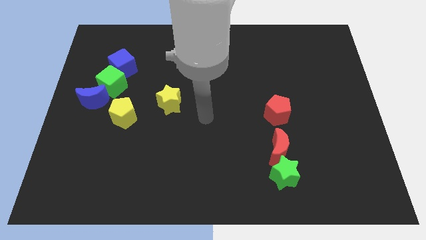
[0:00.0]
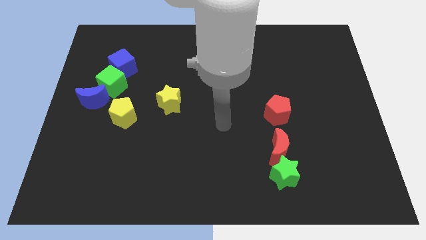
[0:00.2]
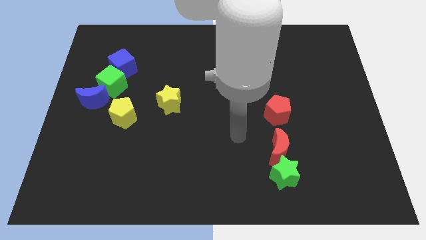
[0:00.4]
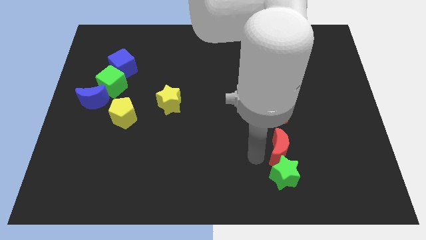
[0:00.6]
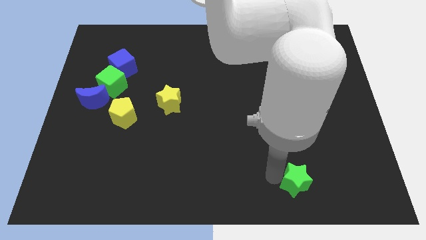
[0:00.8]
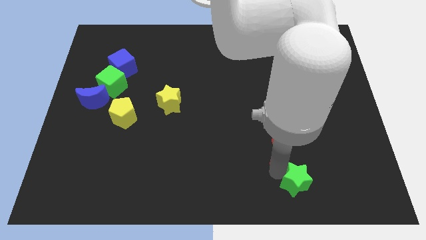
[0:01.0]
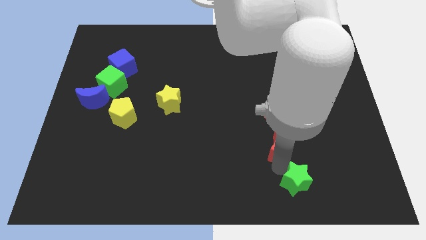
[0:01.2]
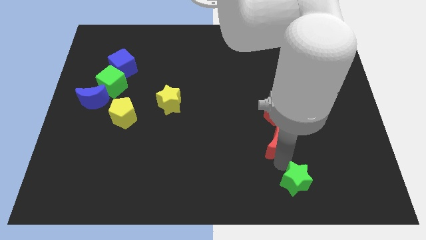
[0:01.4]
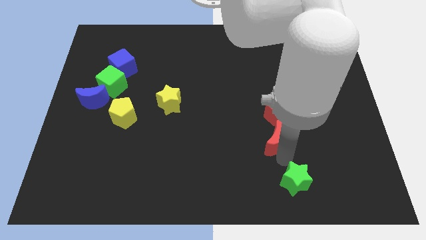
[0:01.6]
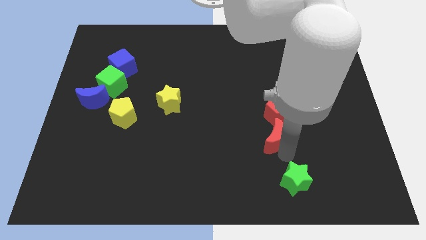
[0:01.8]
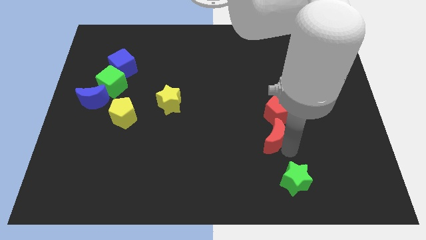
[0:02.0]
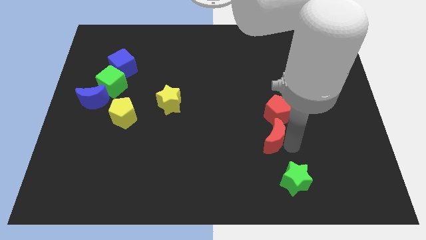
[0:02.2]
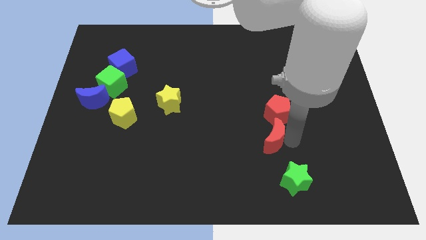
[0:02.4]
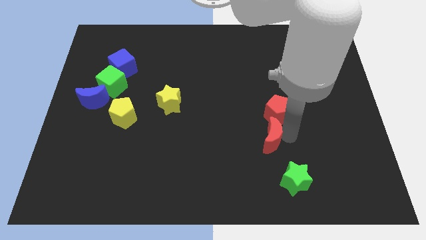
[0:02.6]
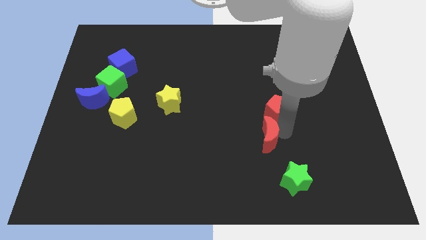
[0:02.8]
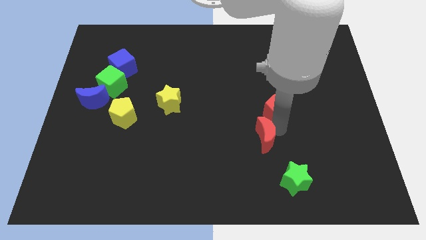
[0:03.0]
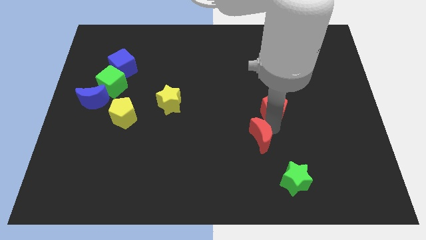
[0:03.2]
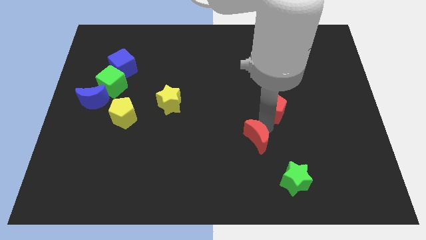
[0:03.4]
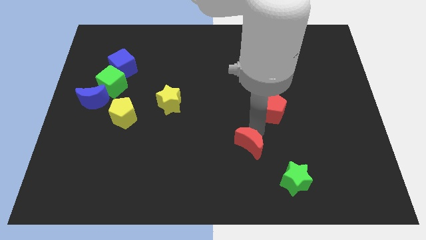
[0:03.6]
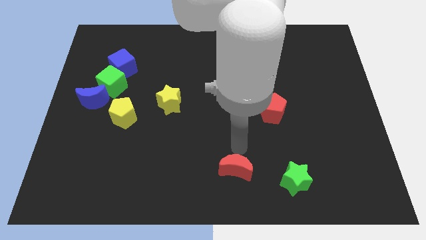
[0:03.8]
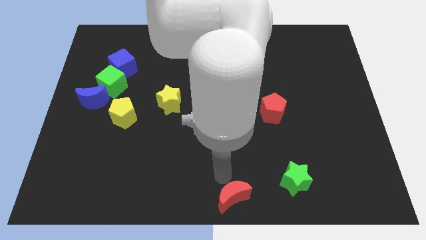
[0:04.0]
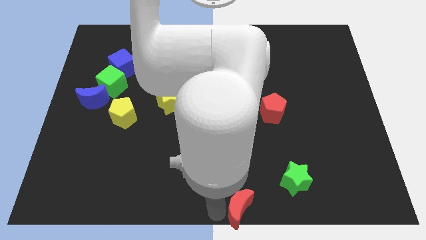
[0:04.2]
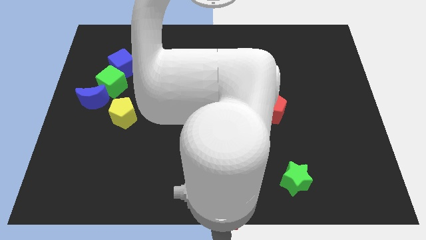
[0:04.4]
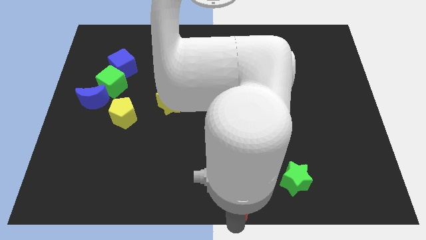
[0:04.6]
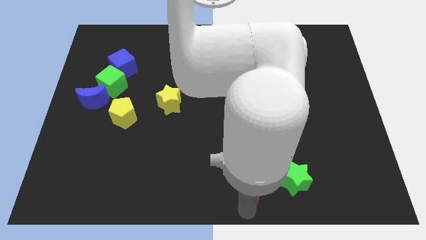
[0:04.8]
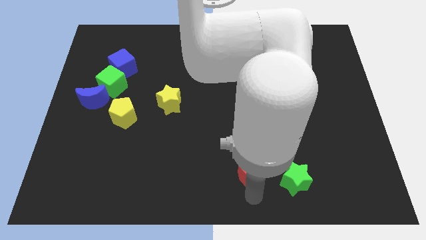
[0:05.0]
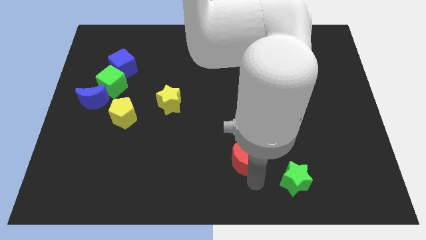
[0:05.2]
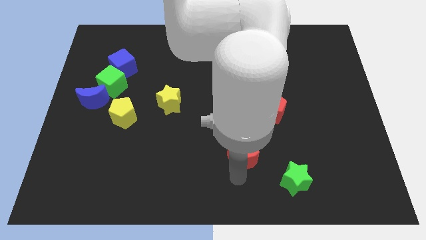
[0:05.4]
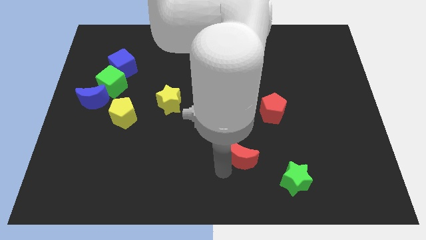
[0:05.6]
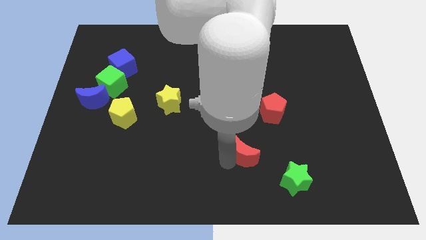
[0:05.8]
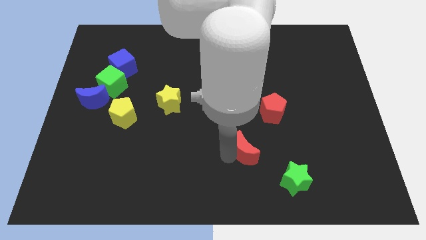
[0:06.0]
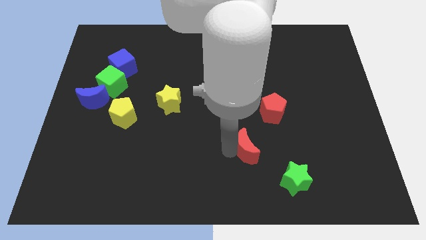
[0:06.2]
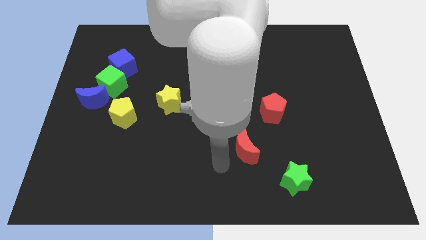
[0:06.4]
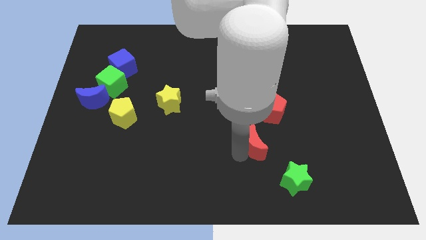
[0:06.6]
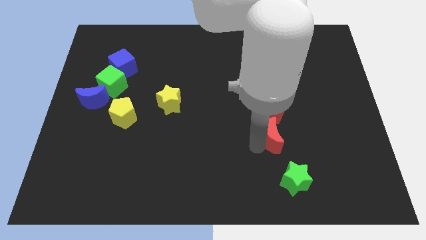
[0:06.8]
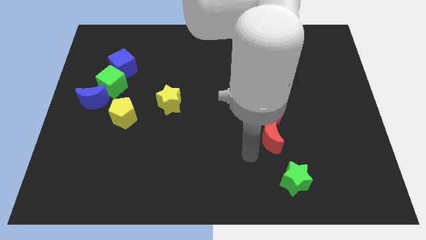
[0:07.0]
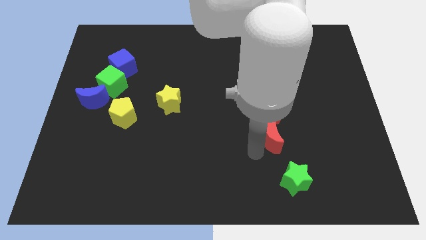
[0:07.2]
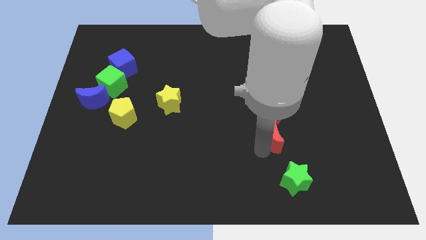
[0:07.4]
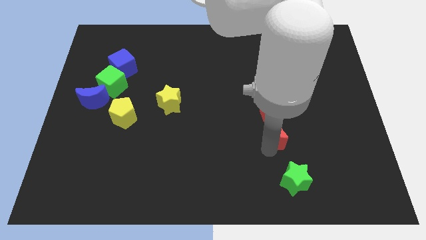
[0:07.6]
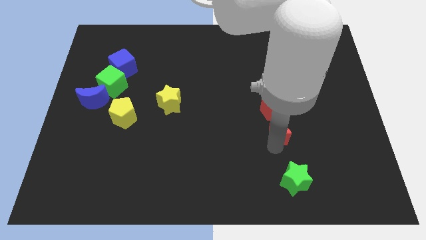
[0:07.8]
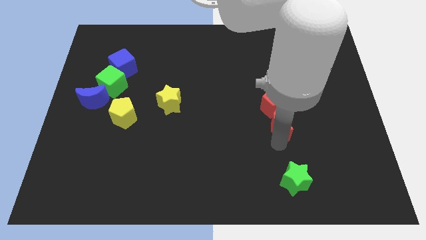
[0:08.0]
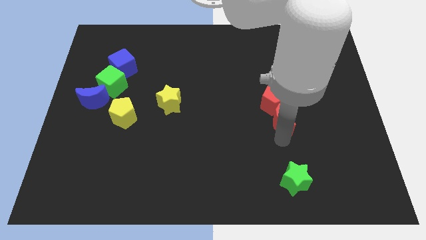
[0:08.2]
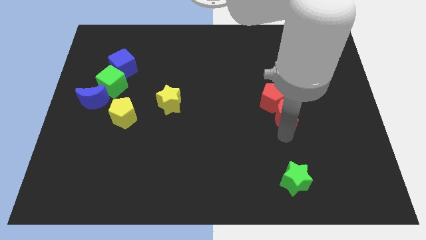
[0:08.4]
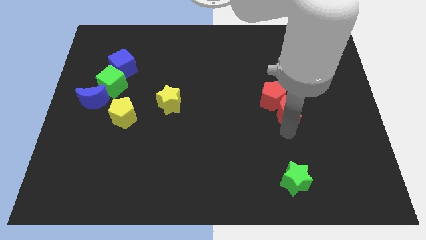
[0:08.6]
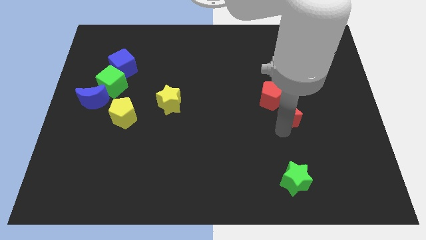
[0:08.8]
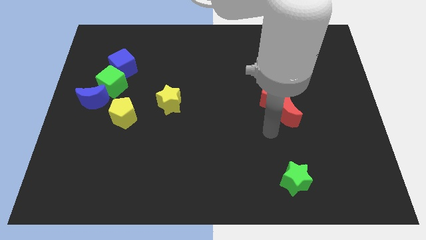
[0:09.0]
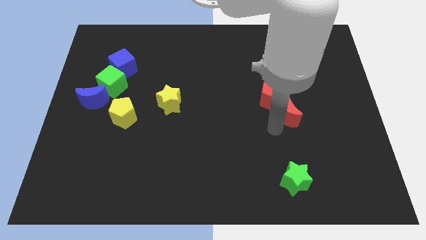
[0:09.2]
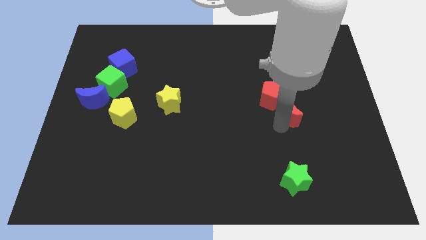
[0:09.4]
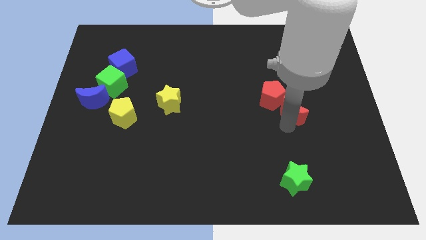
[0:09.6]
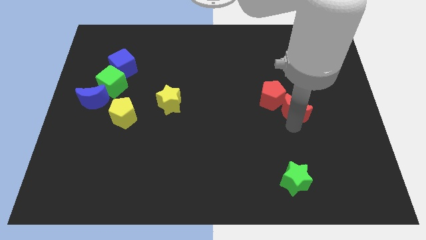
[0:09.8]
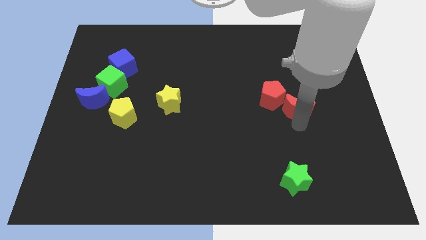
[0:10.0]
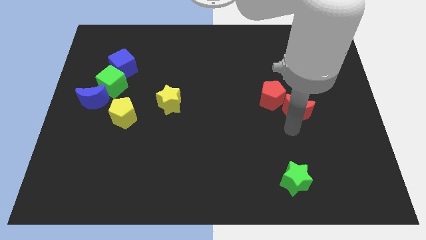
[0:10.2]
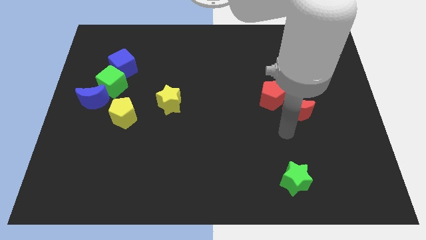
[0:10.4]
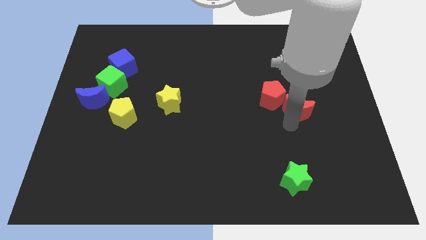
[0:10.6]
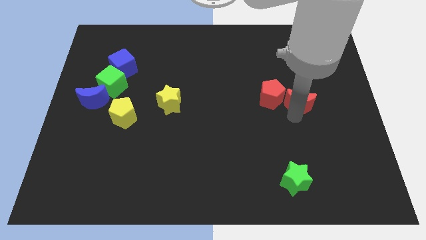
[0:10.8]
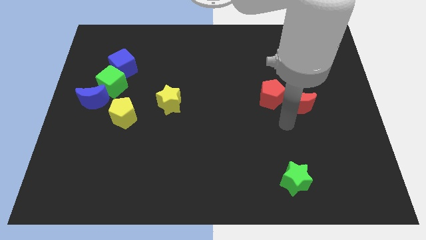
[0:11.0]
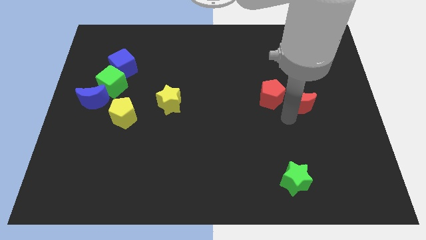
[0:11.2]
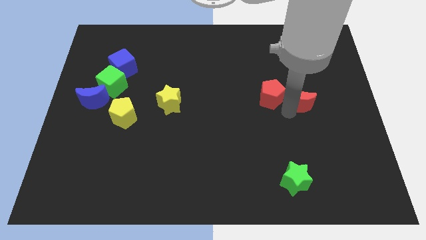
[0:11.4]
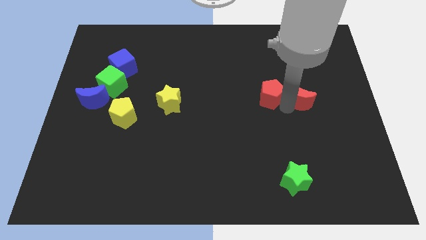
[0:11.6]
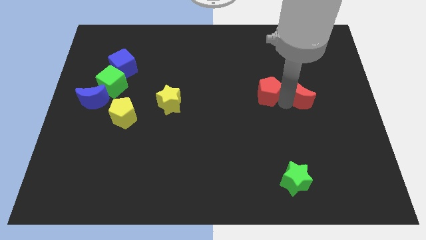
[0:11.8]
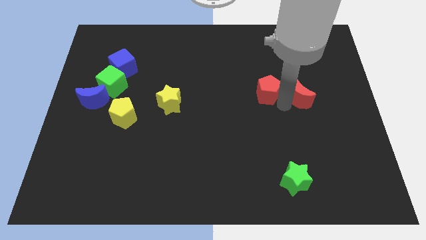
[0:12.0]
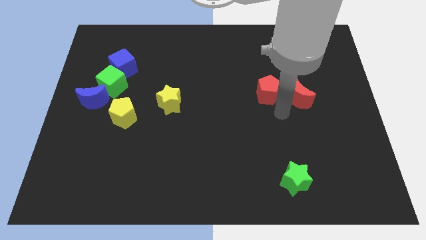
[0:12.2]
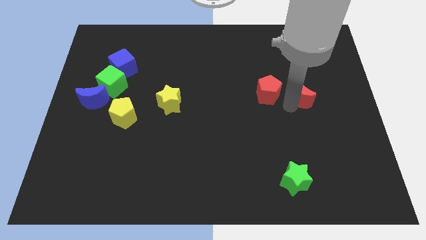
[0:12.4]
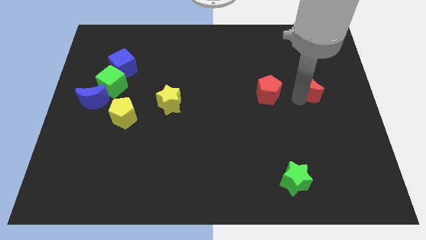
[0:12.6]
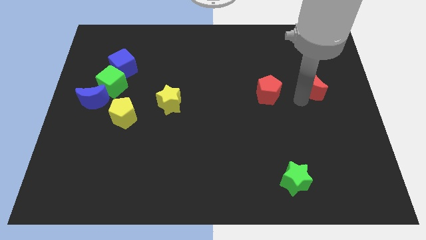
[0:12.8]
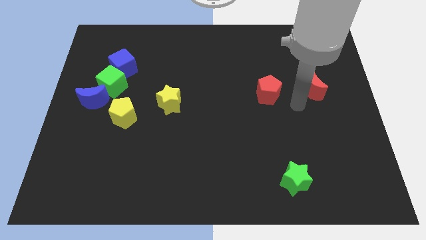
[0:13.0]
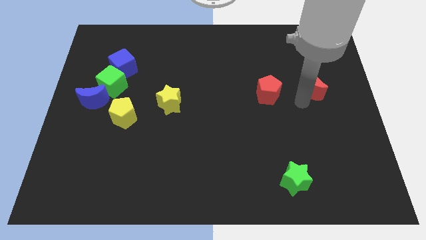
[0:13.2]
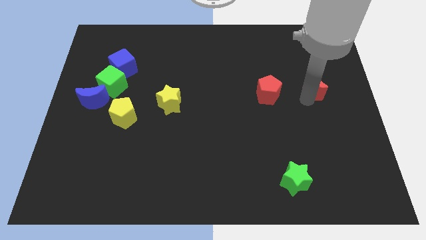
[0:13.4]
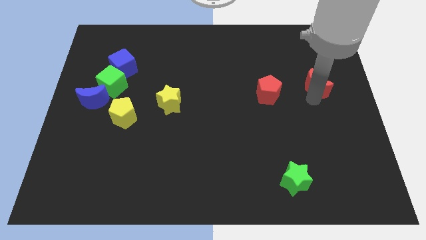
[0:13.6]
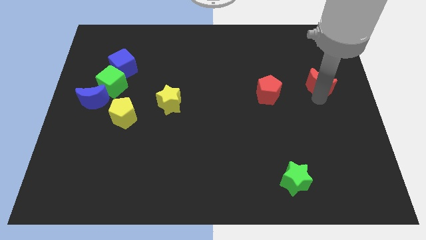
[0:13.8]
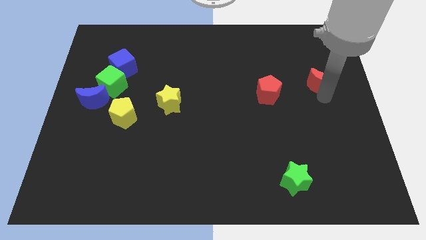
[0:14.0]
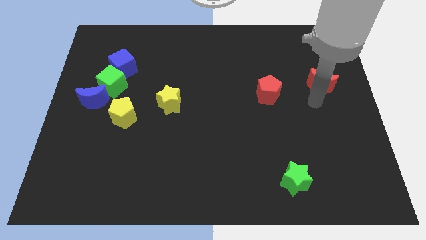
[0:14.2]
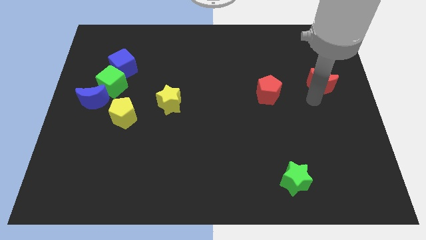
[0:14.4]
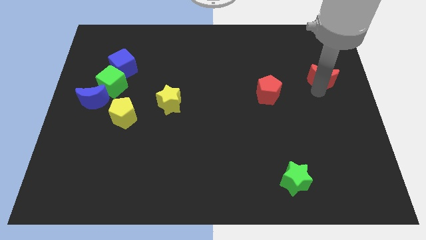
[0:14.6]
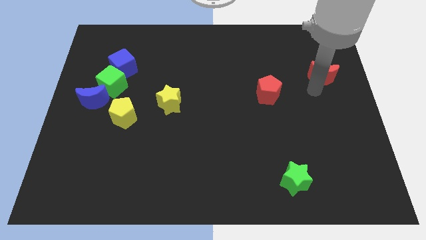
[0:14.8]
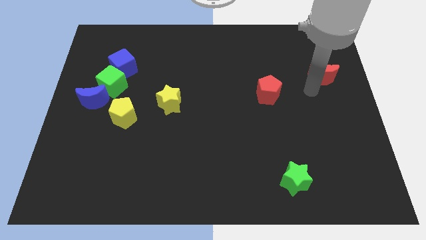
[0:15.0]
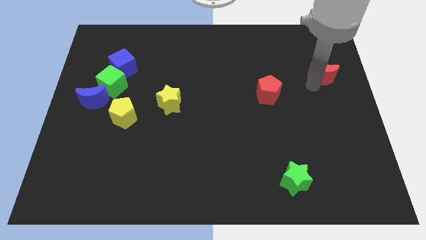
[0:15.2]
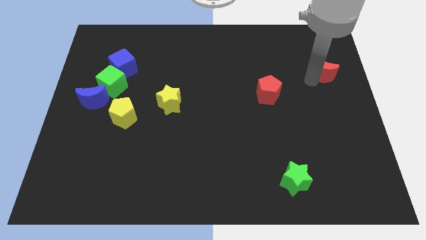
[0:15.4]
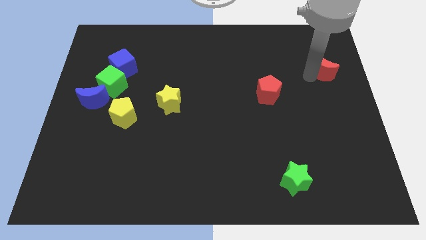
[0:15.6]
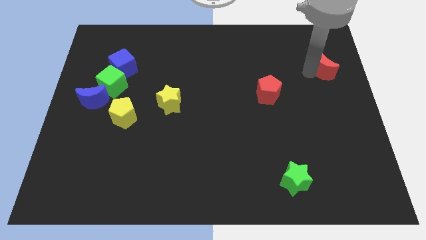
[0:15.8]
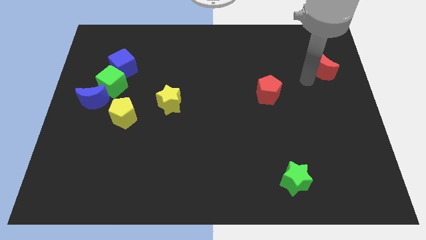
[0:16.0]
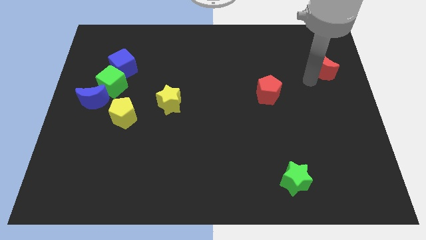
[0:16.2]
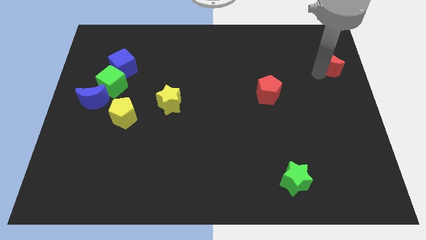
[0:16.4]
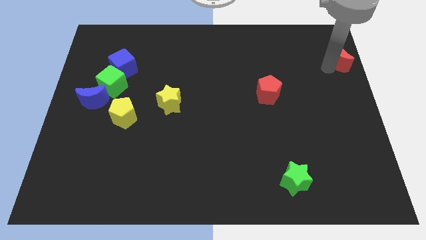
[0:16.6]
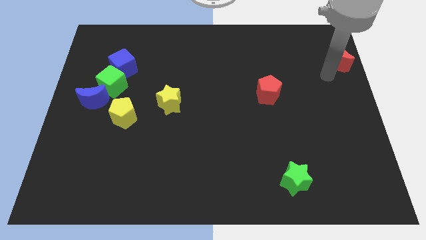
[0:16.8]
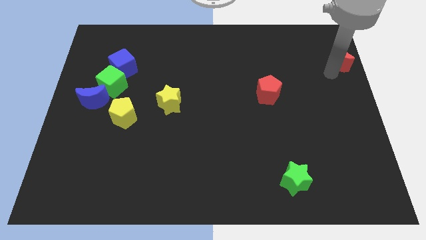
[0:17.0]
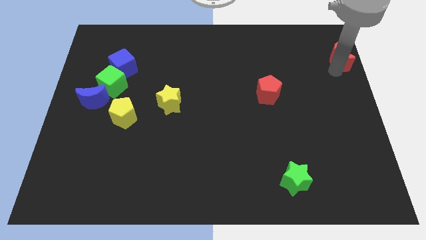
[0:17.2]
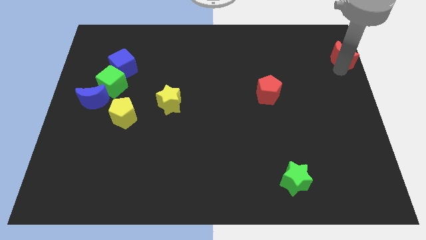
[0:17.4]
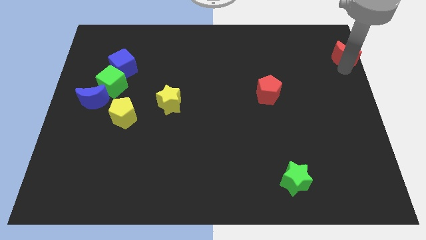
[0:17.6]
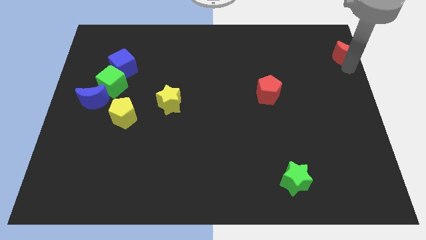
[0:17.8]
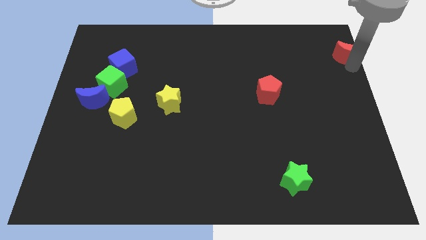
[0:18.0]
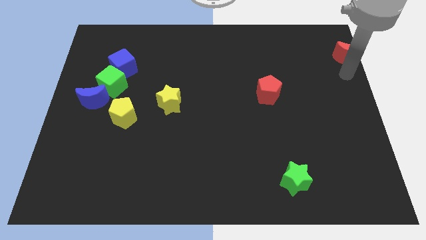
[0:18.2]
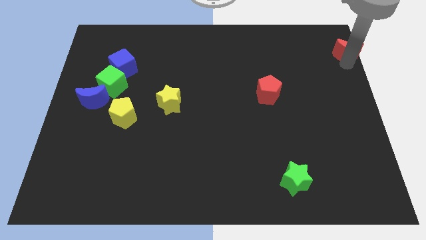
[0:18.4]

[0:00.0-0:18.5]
put the red moon to the upper right corner
